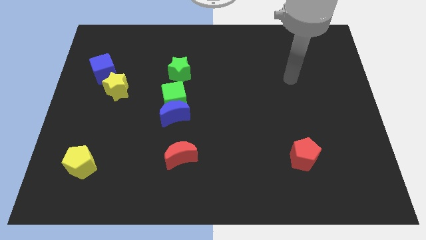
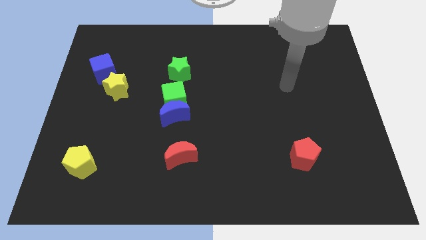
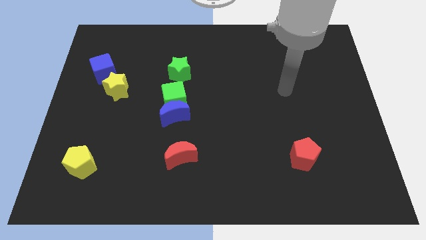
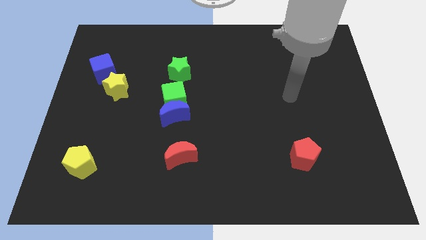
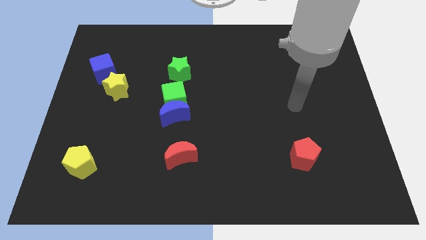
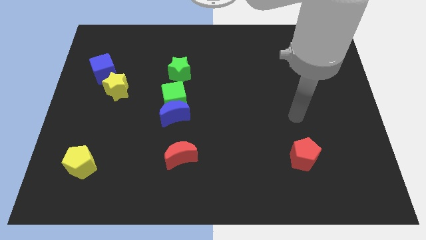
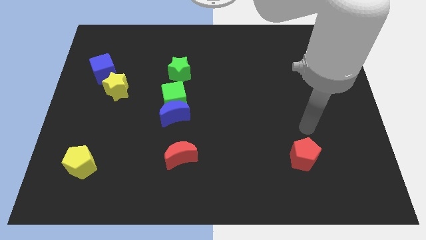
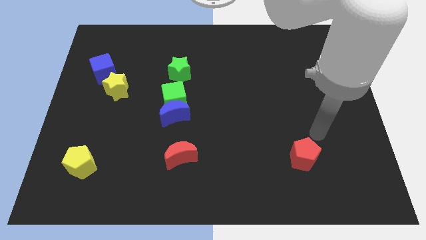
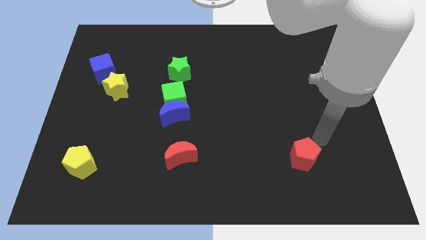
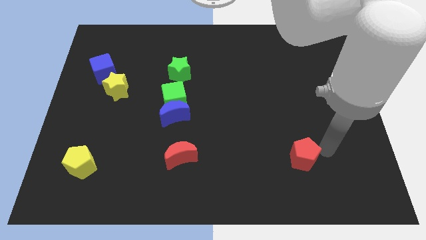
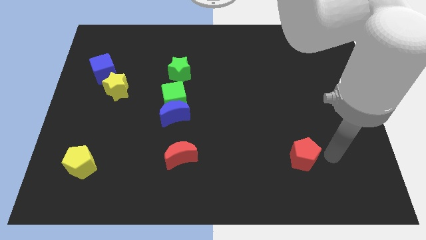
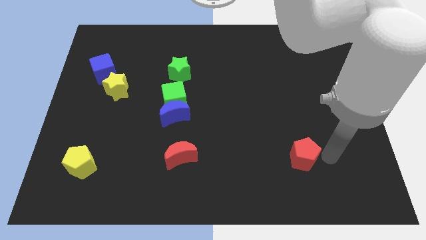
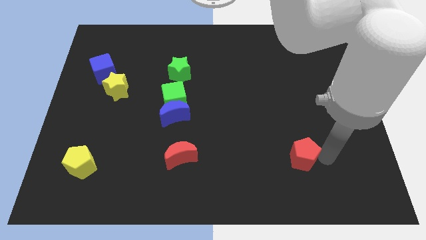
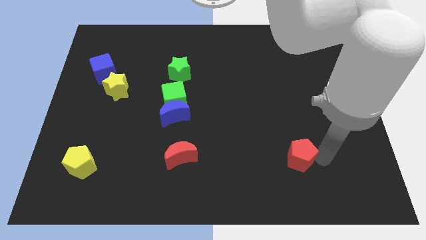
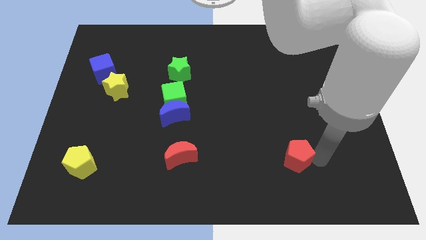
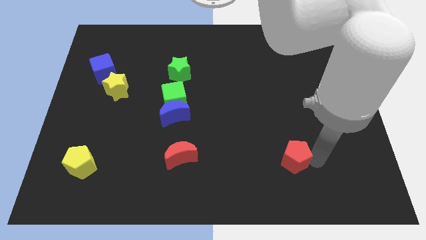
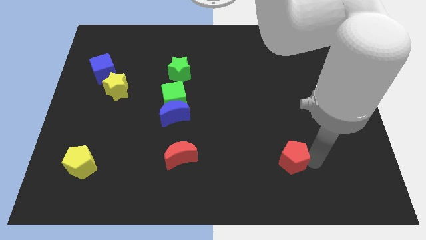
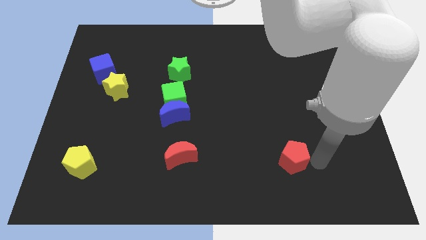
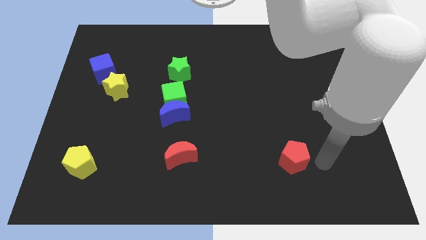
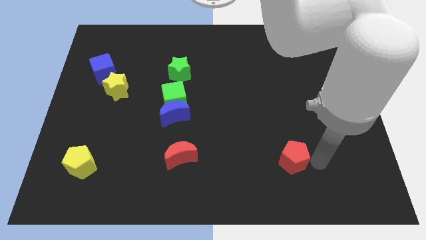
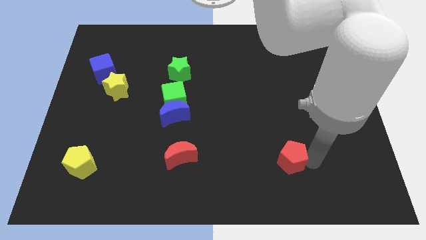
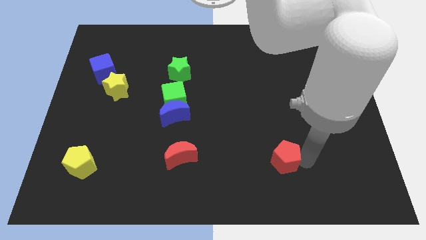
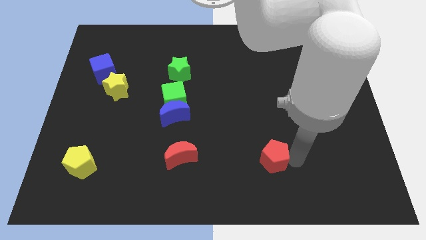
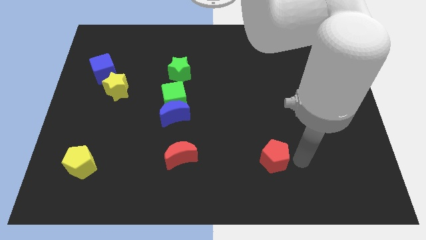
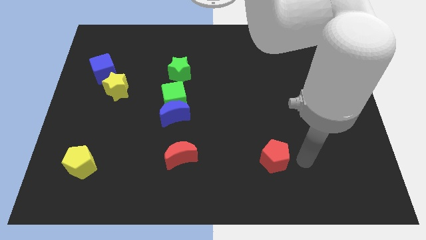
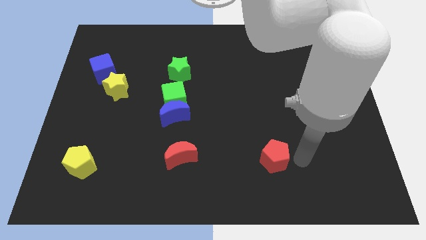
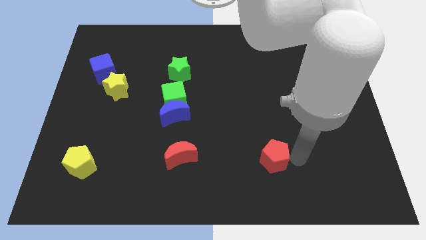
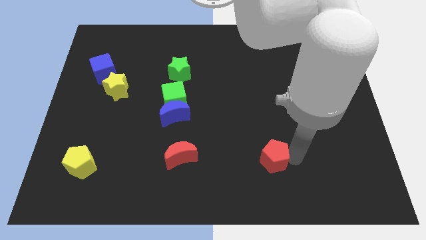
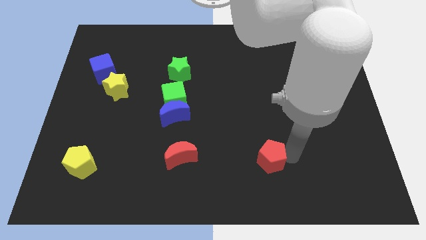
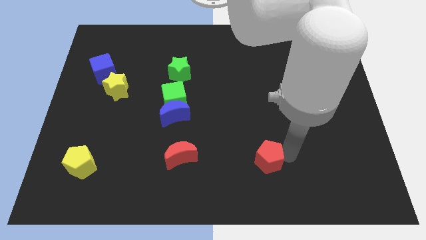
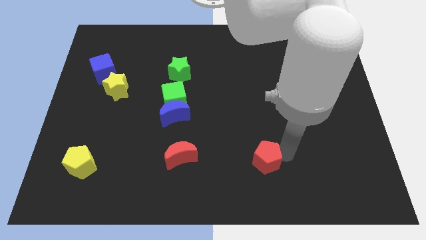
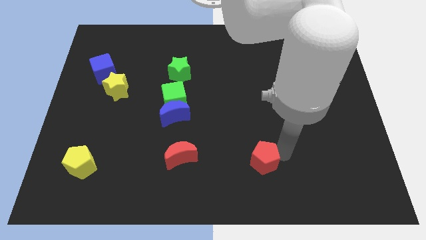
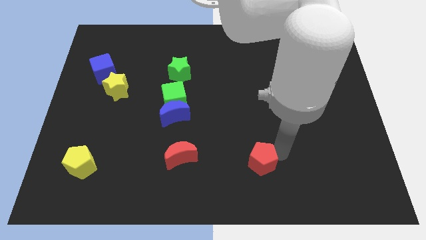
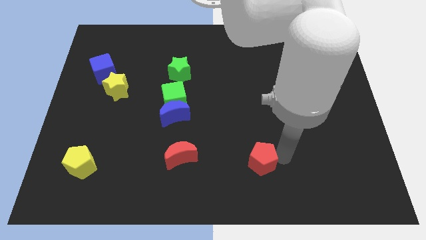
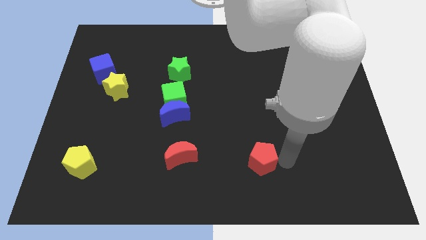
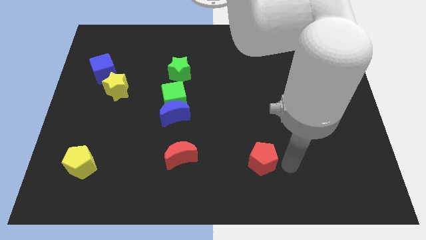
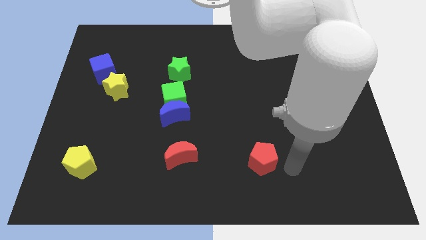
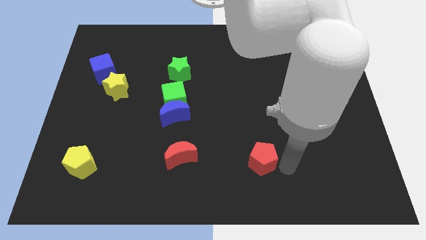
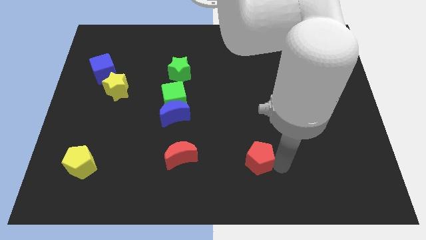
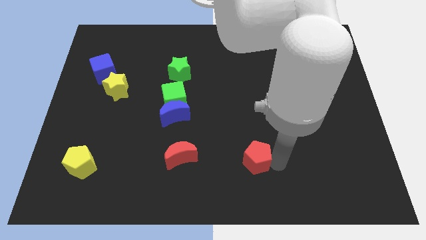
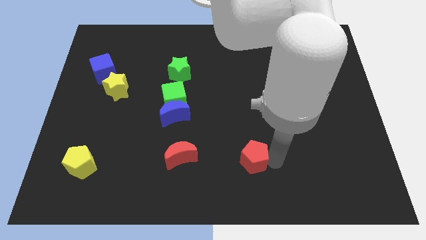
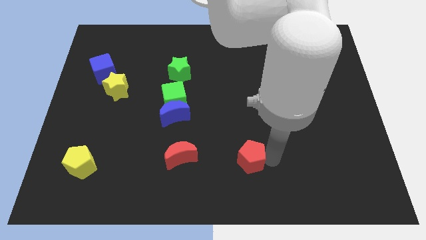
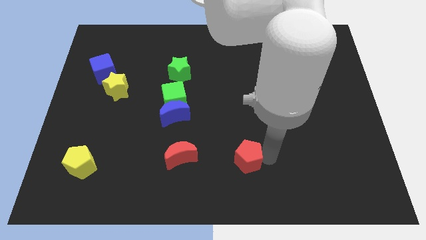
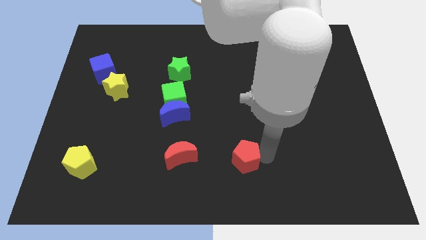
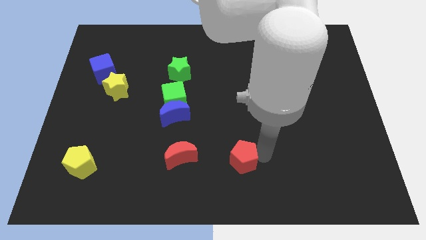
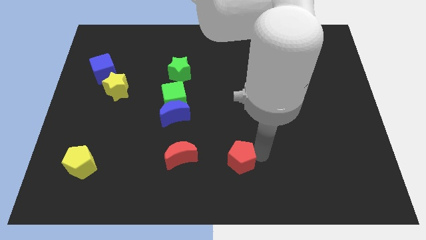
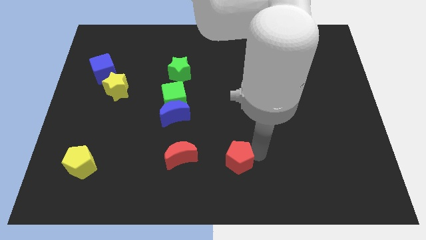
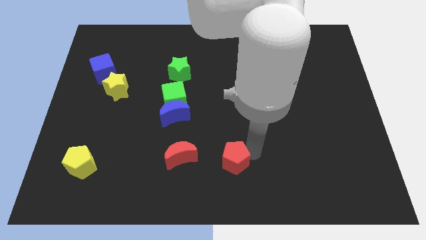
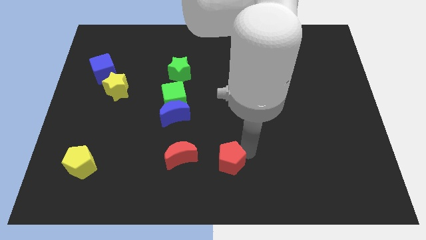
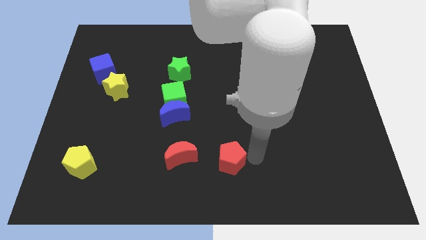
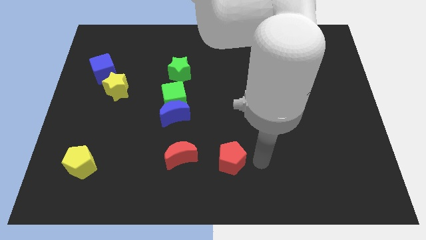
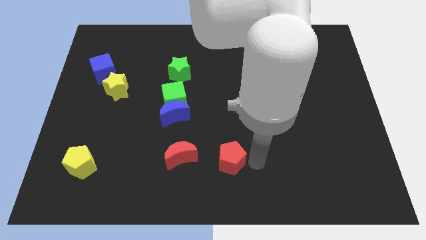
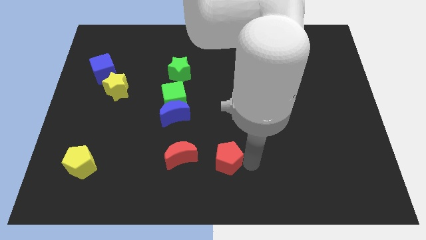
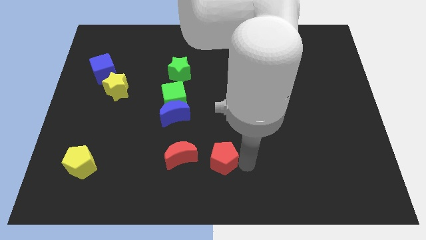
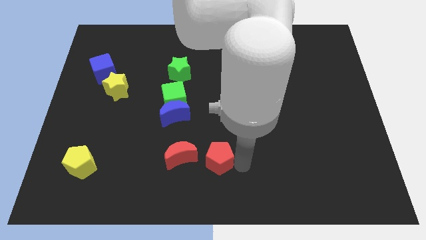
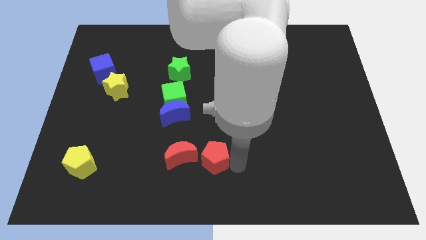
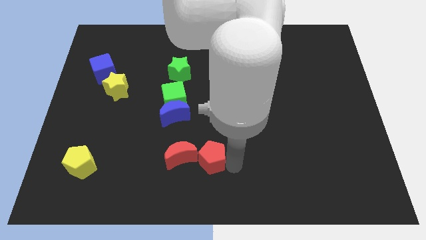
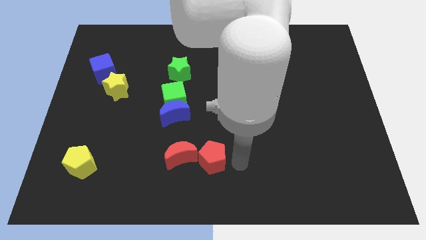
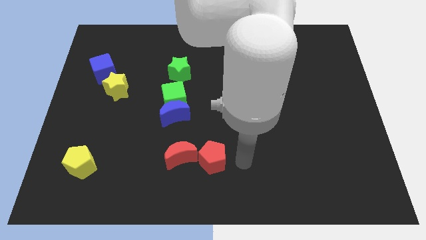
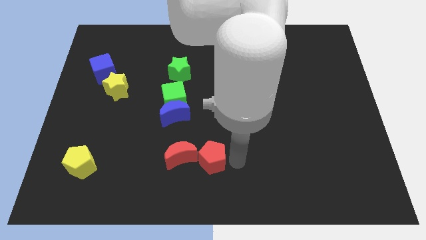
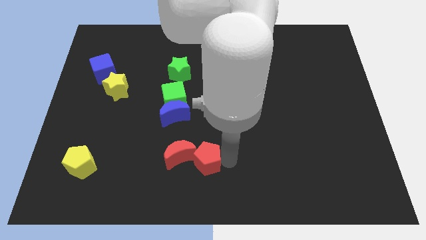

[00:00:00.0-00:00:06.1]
move the red pentagon to the red moon

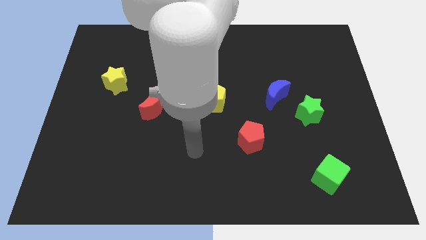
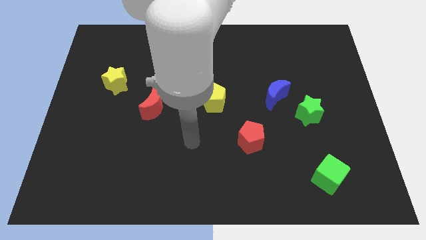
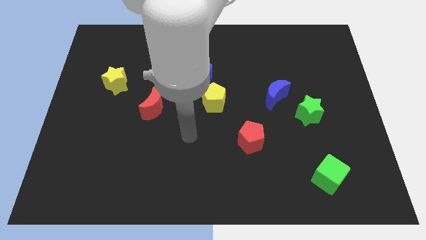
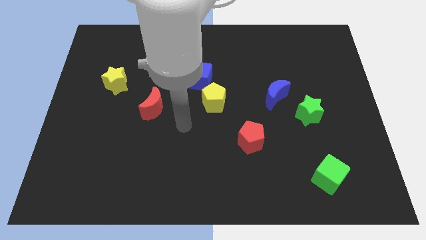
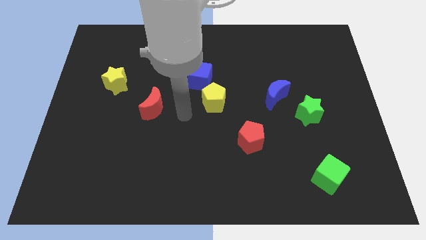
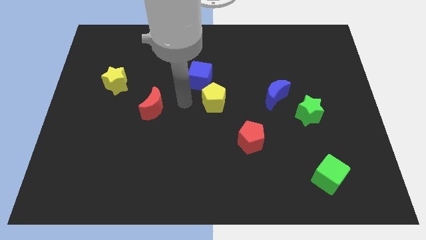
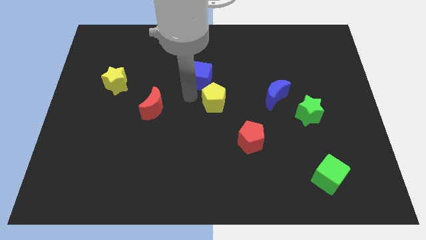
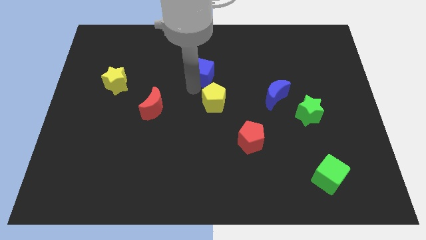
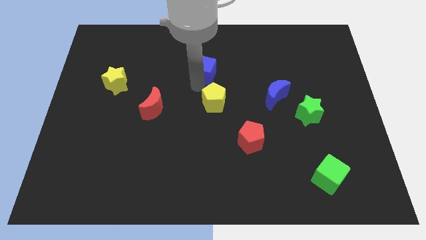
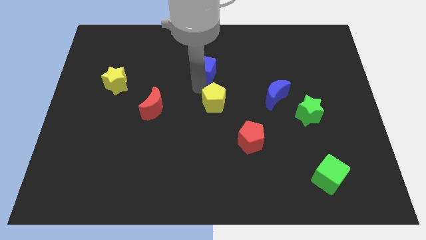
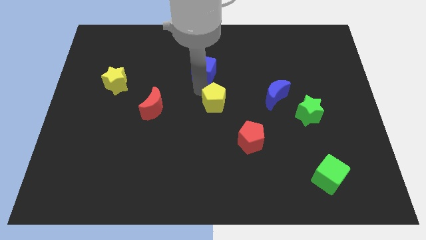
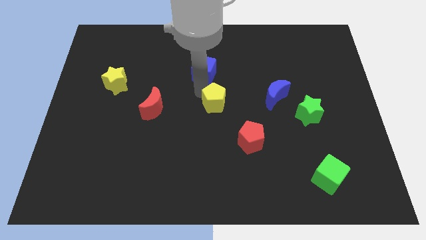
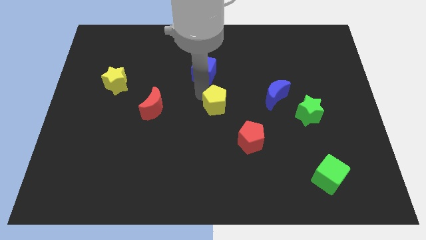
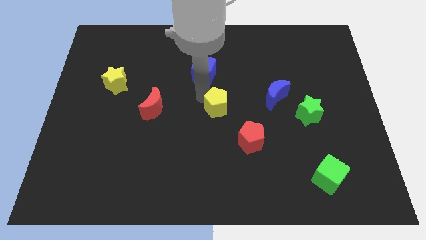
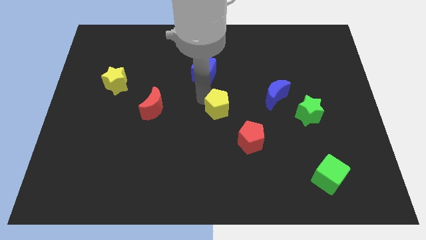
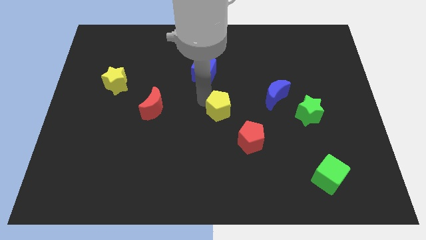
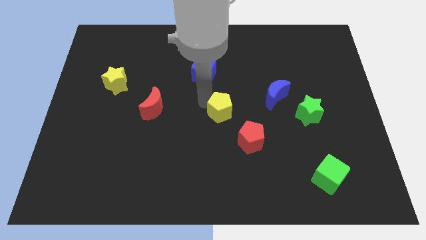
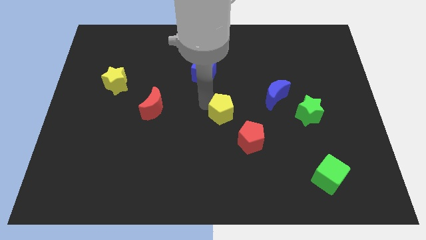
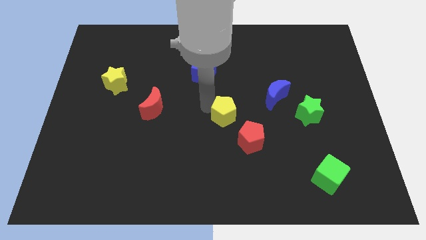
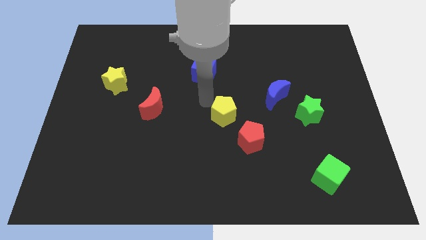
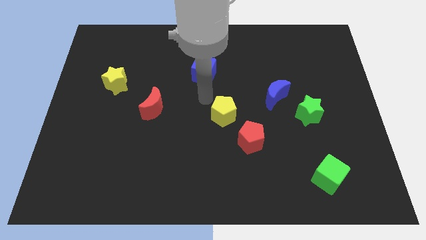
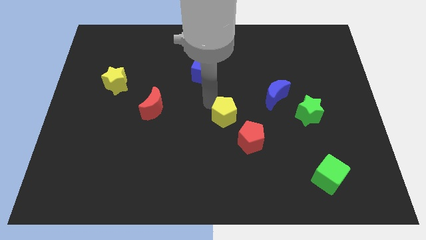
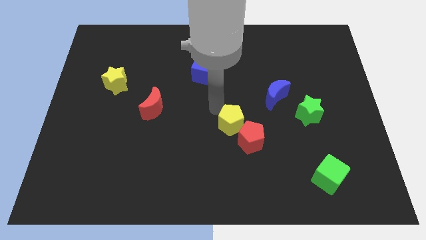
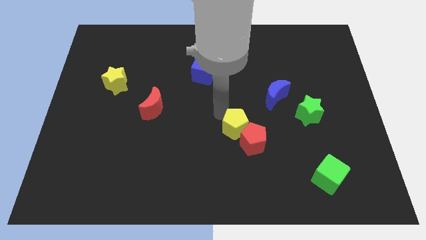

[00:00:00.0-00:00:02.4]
slide the yellow pentagon to the red pentagon
